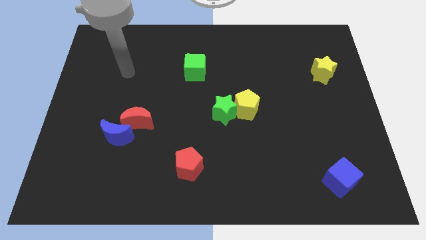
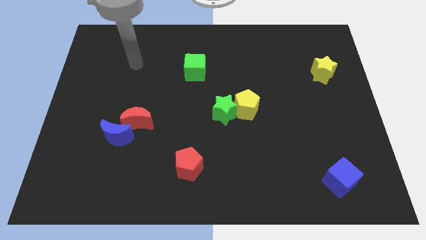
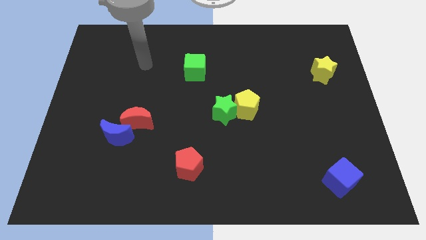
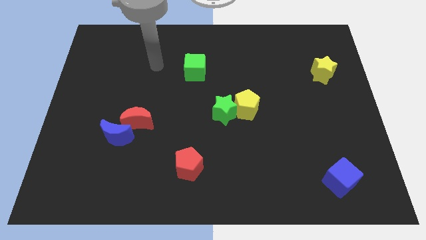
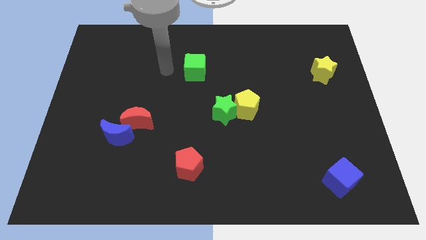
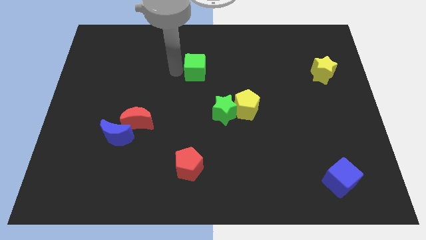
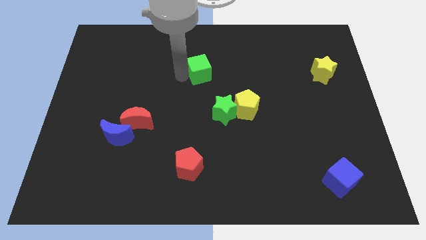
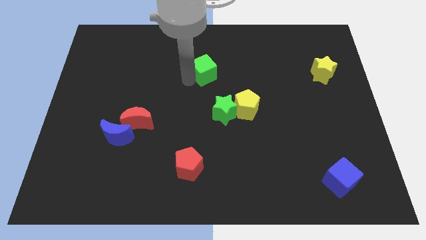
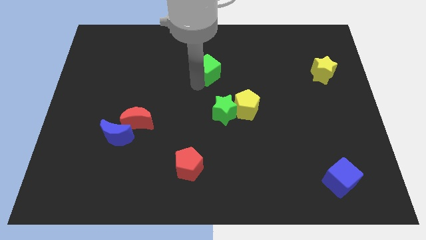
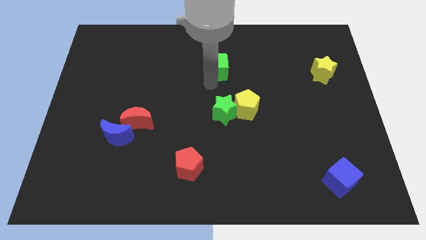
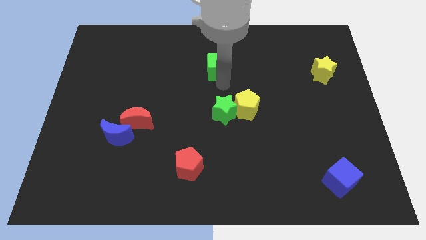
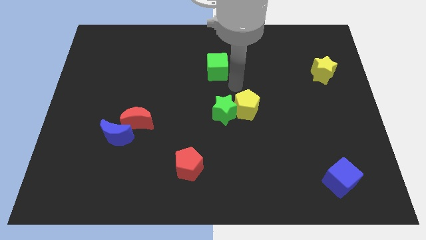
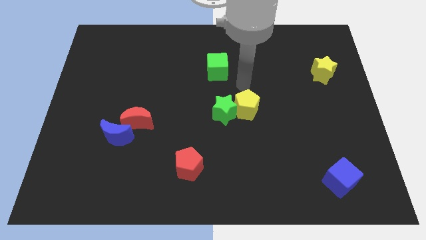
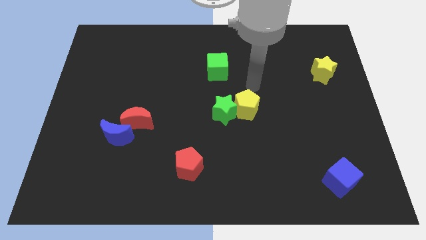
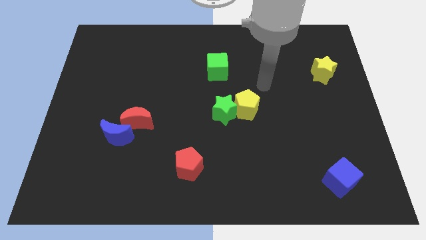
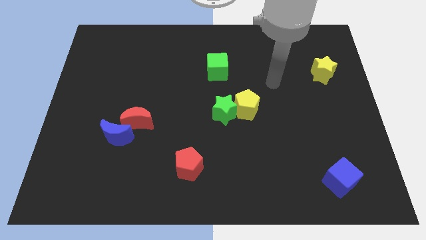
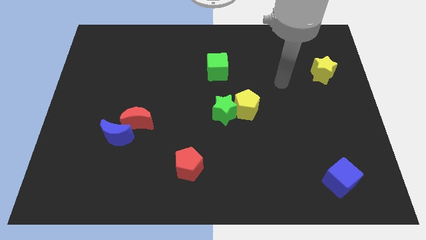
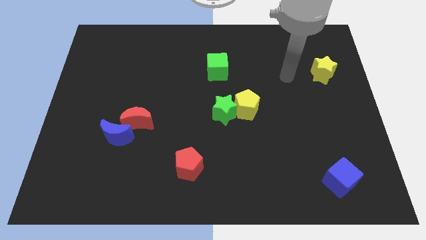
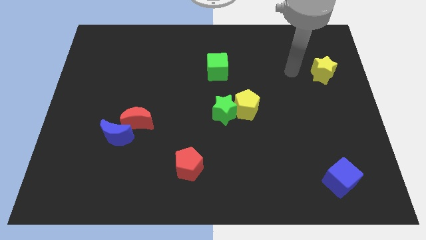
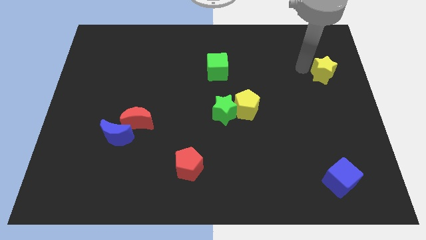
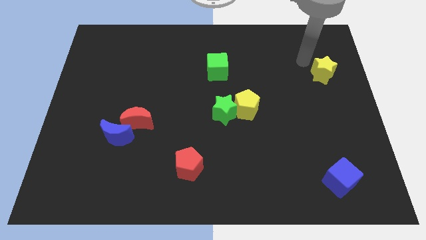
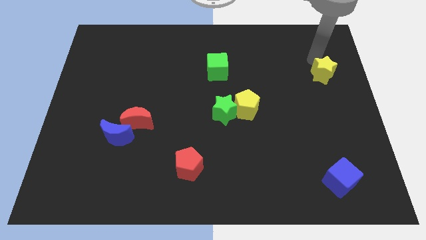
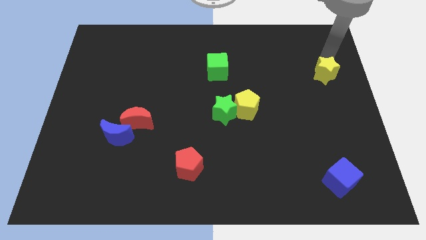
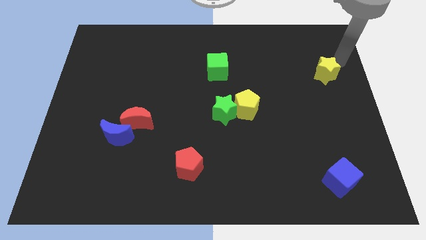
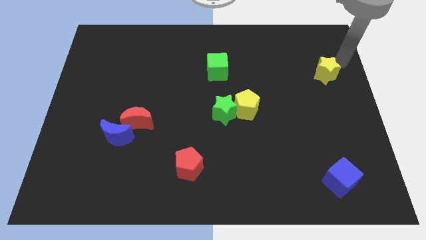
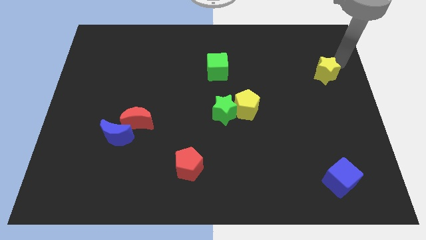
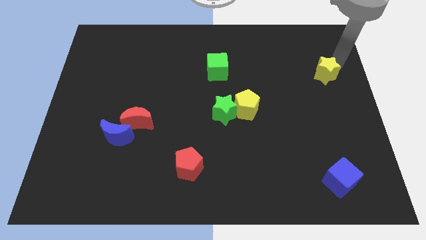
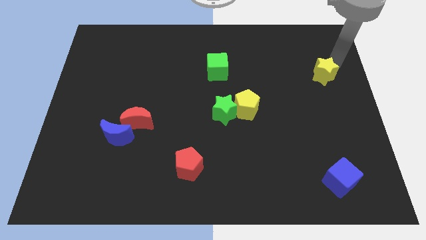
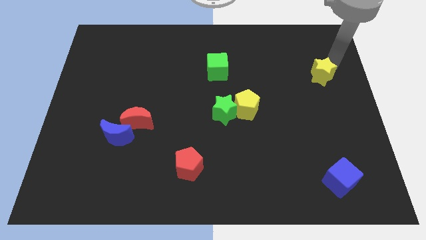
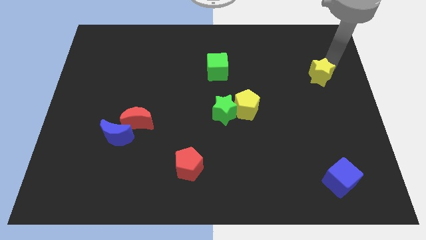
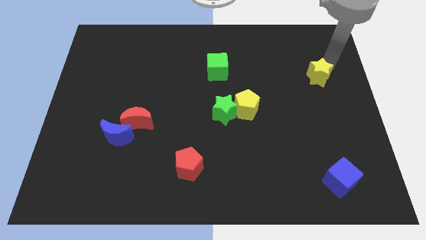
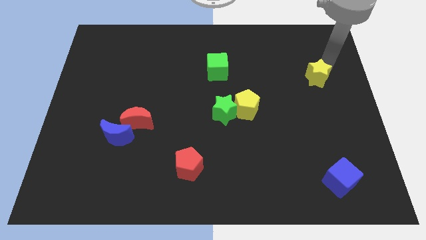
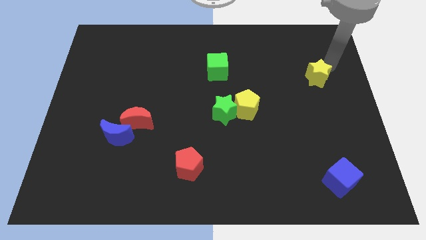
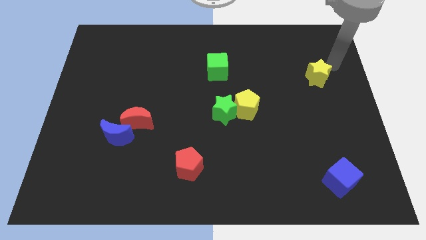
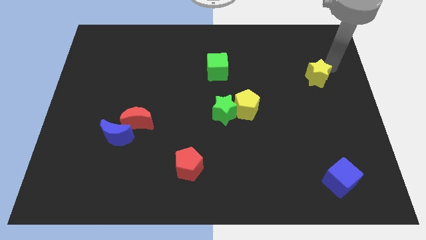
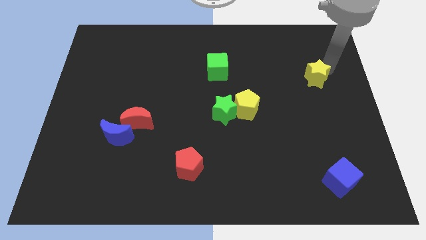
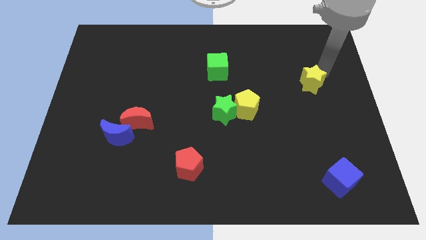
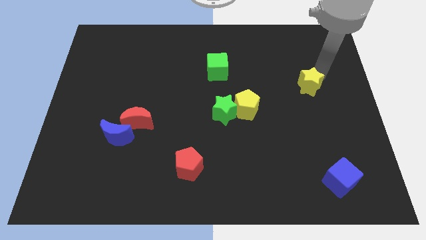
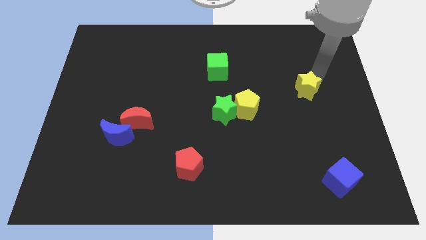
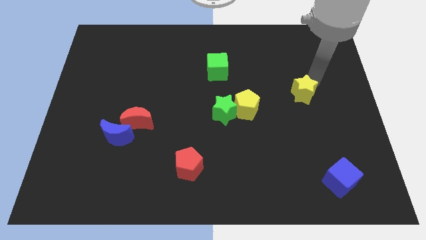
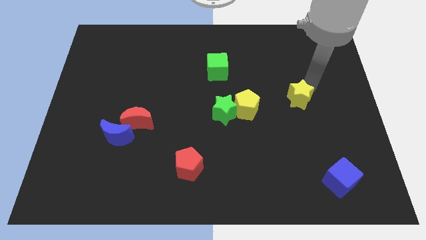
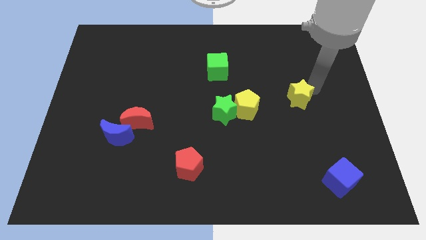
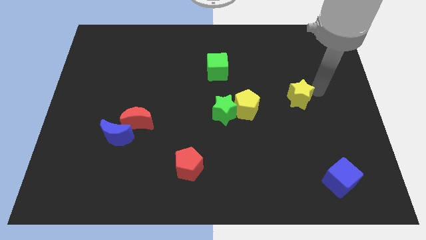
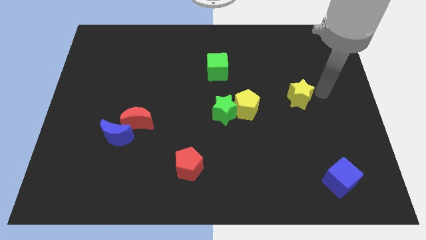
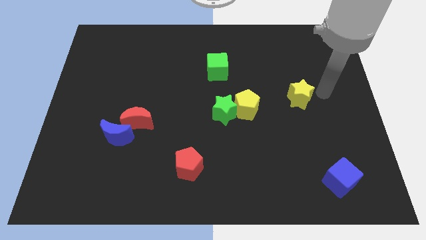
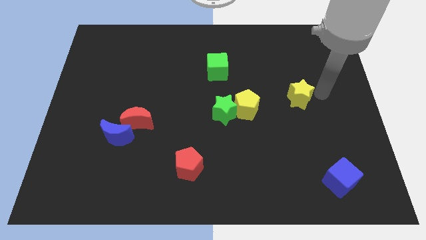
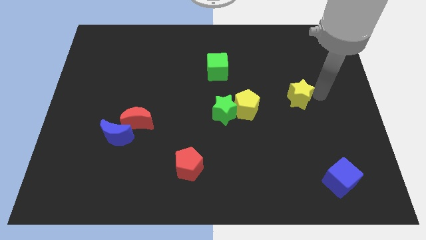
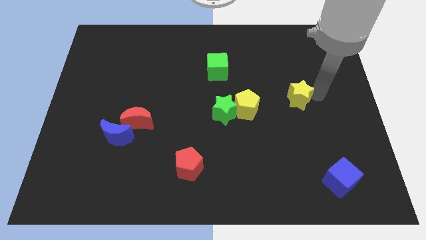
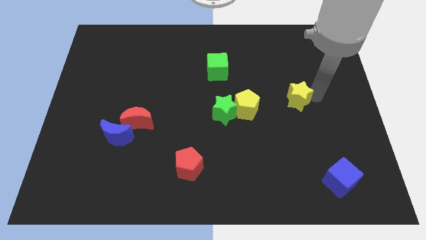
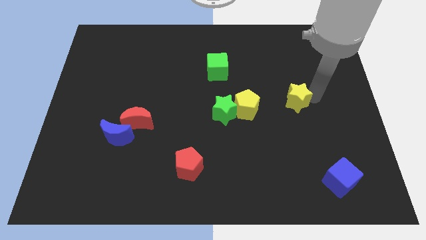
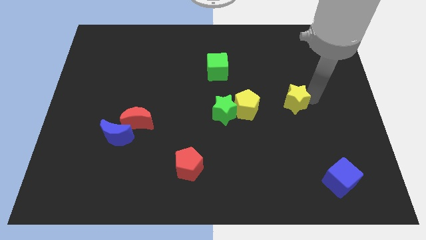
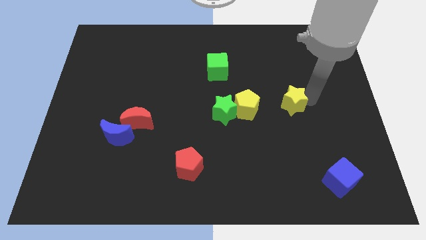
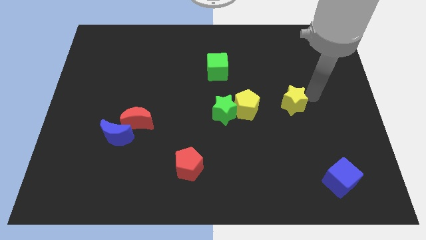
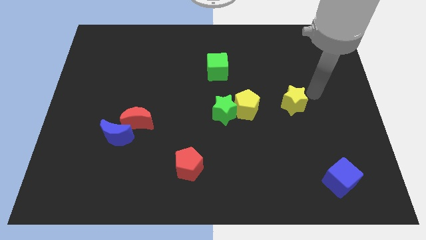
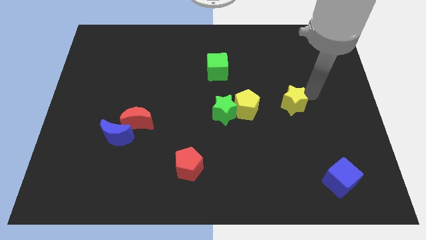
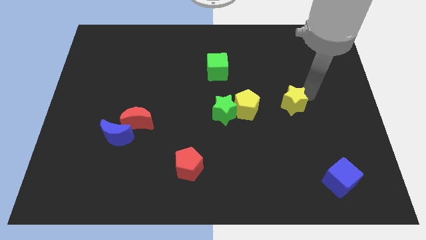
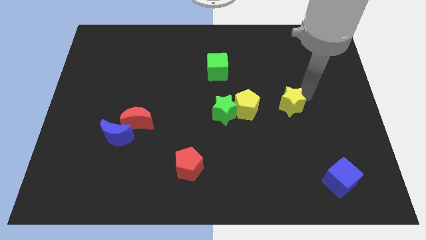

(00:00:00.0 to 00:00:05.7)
move the yellow star right of the green star

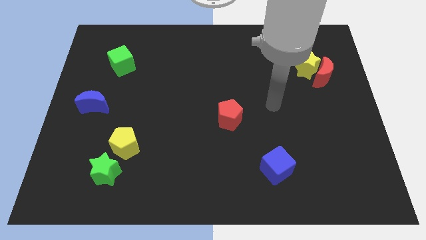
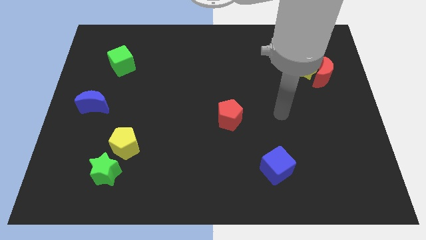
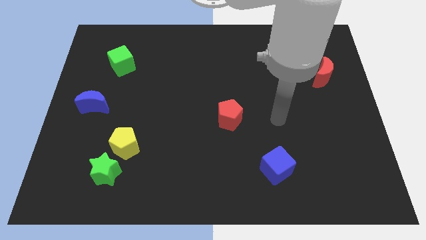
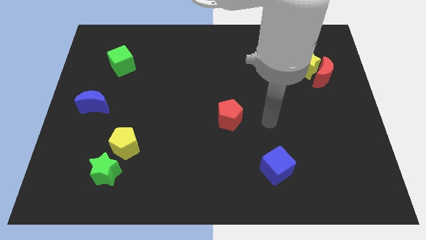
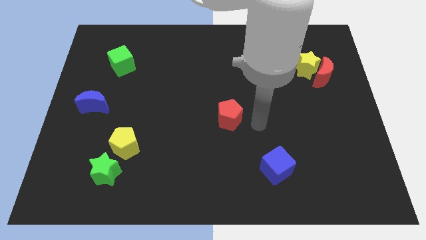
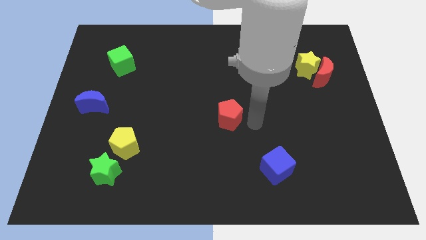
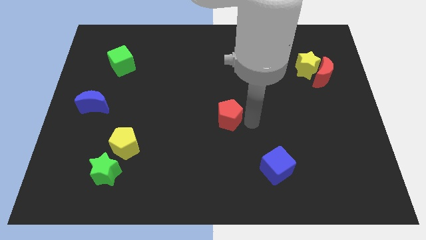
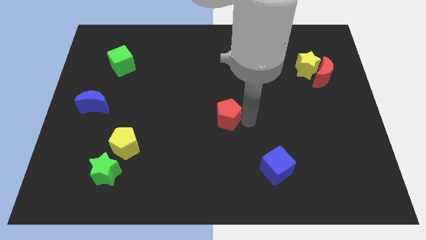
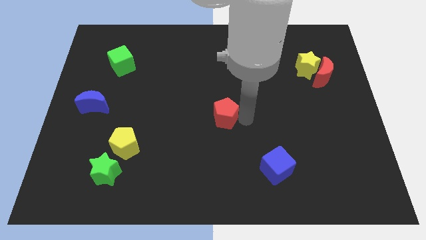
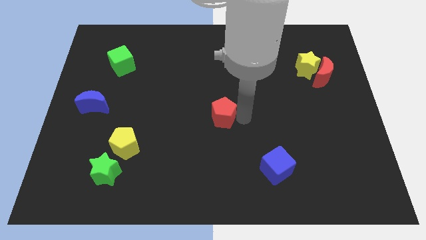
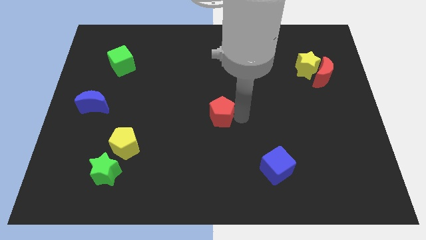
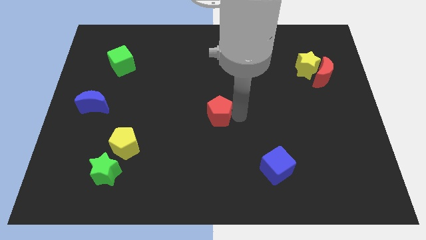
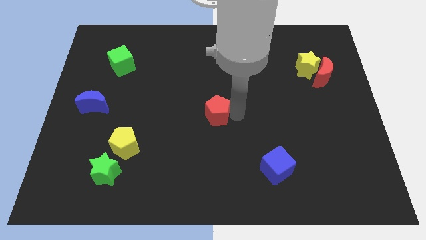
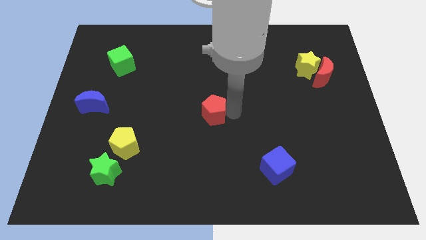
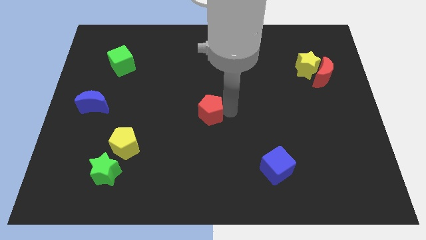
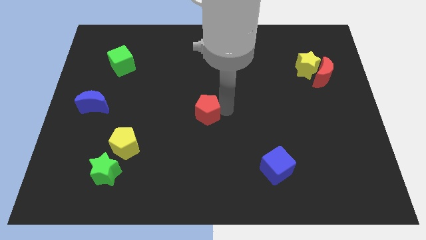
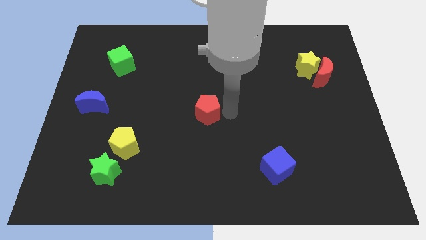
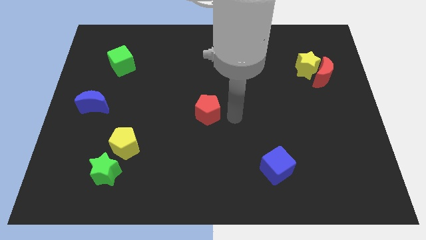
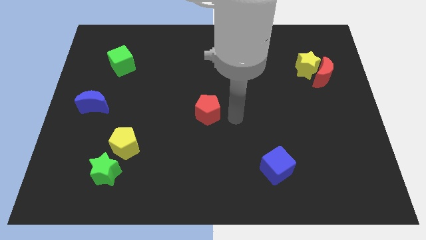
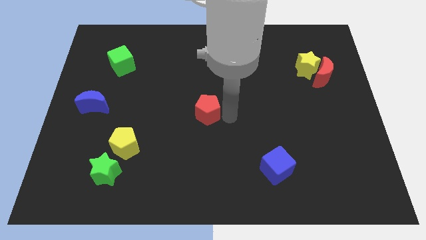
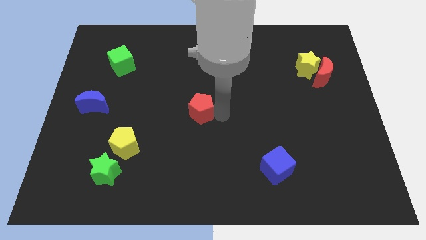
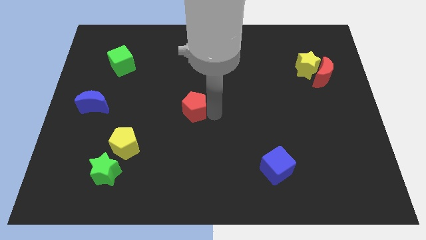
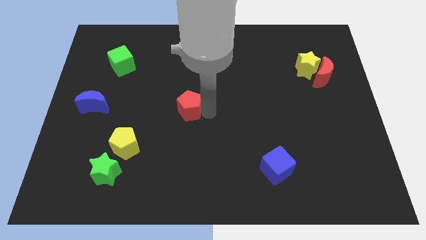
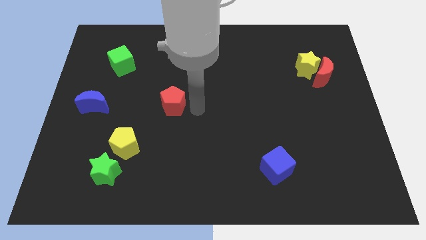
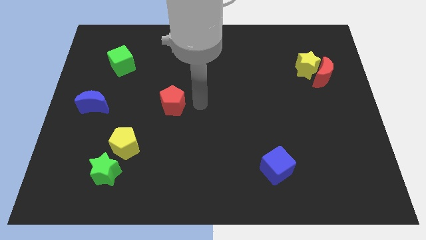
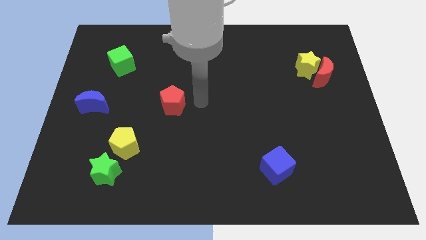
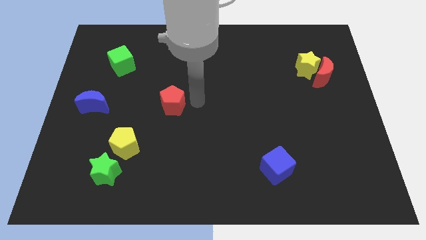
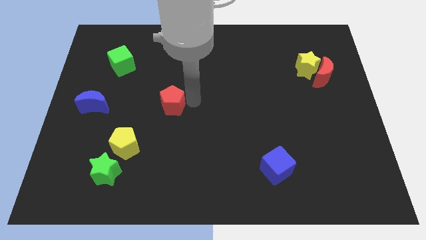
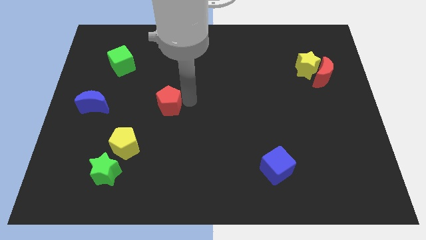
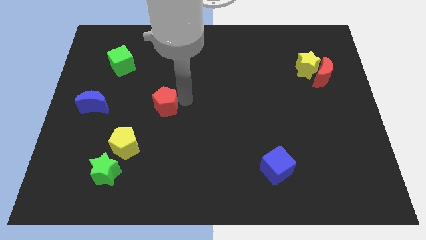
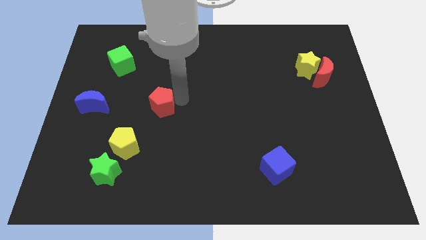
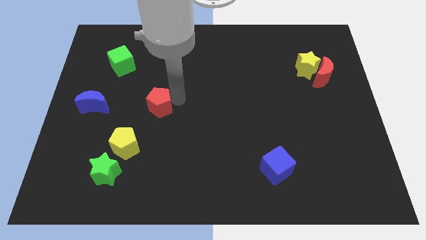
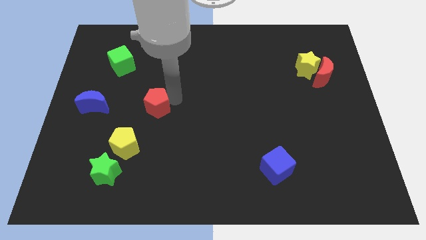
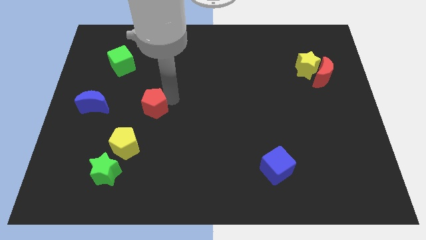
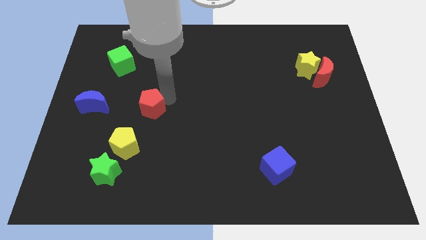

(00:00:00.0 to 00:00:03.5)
move the red pentagon to the top side of the yellow pentagon
